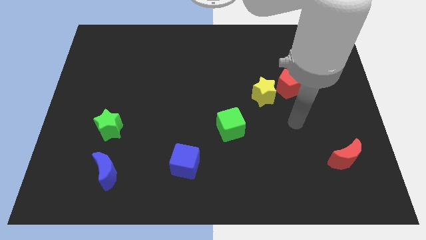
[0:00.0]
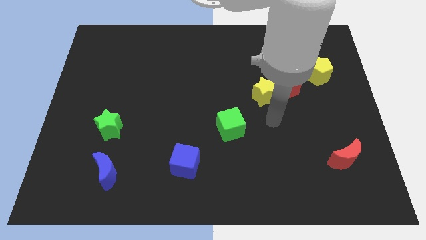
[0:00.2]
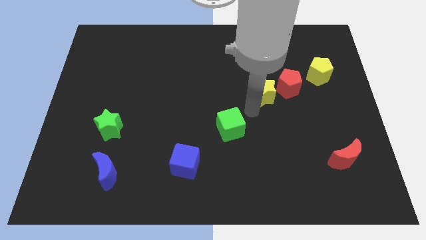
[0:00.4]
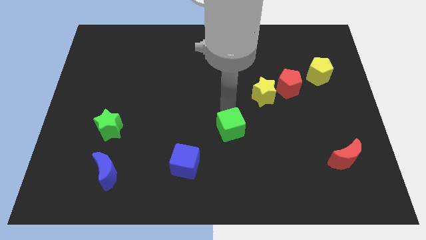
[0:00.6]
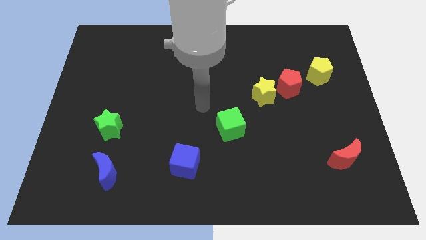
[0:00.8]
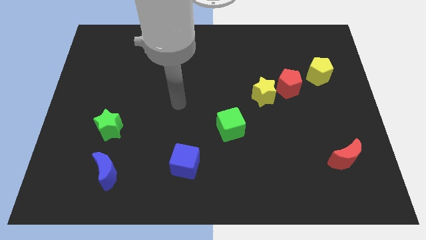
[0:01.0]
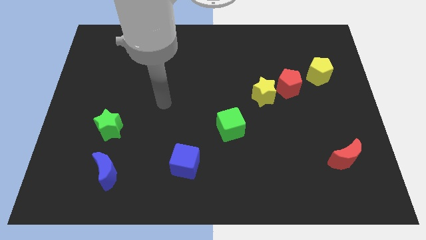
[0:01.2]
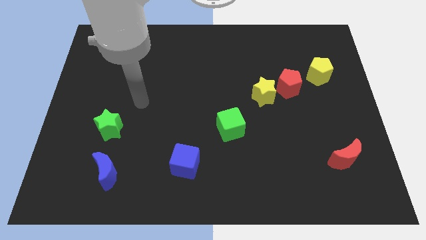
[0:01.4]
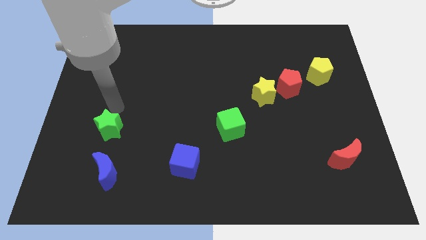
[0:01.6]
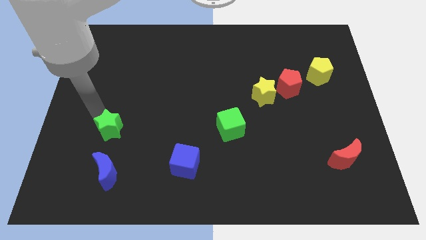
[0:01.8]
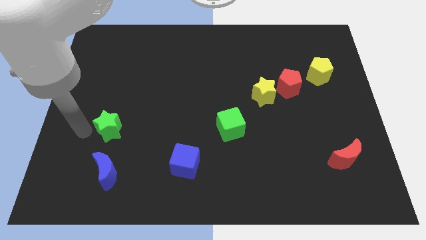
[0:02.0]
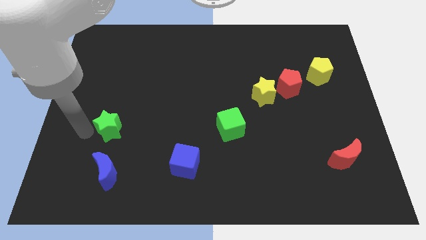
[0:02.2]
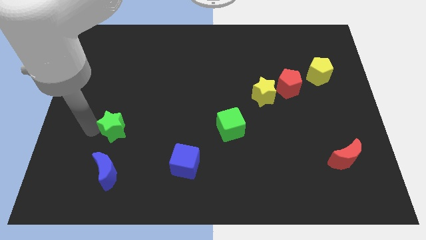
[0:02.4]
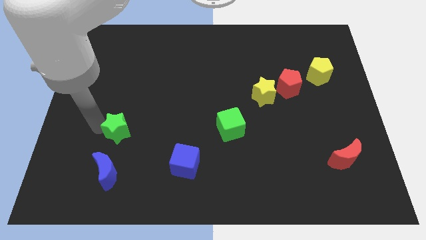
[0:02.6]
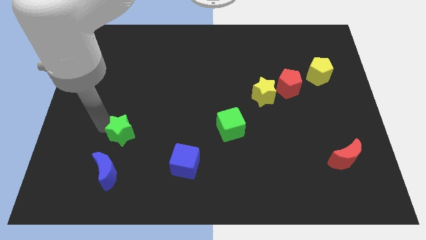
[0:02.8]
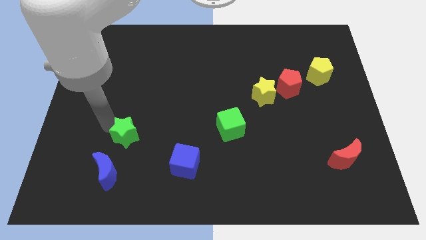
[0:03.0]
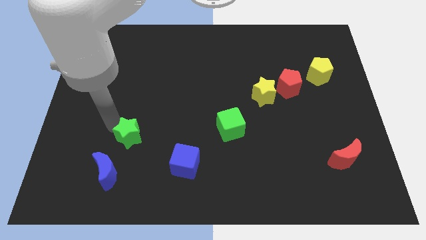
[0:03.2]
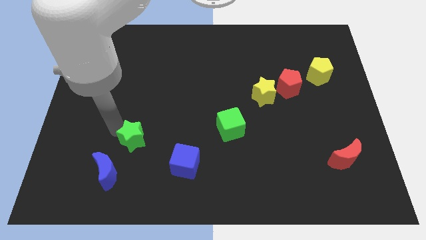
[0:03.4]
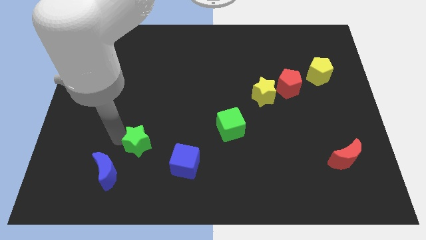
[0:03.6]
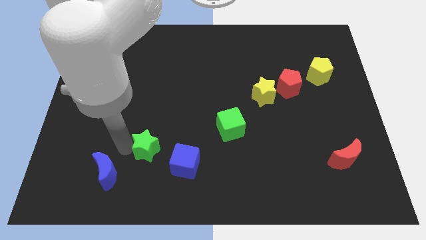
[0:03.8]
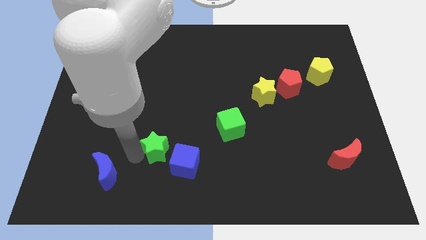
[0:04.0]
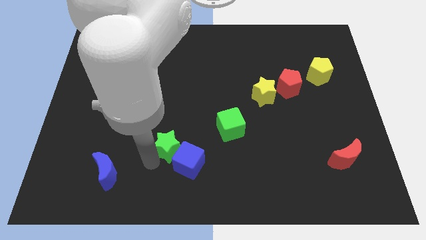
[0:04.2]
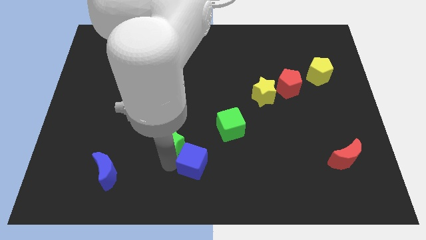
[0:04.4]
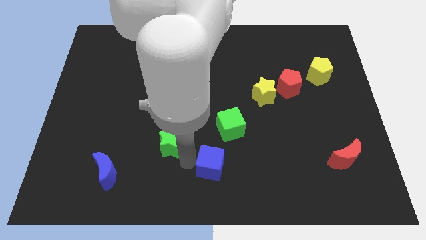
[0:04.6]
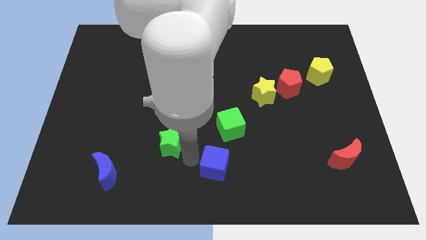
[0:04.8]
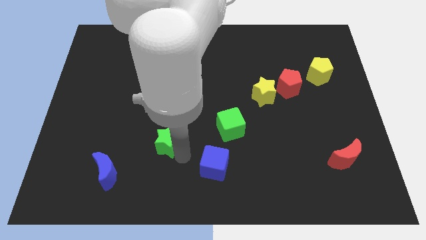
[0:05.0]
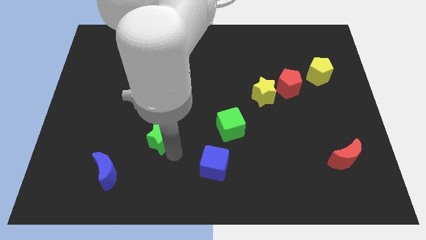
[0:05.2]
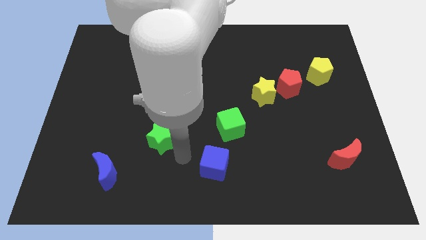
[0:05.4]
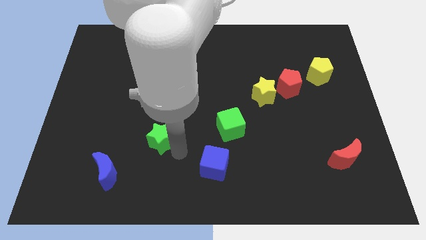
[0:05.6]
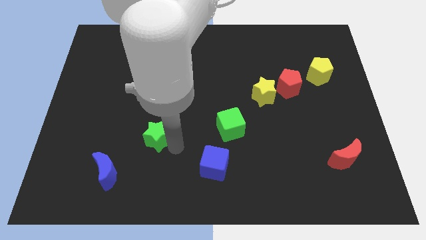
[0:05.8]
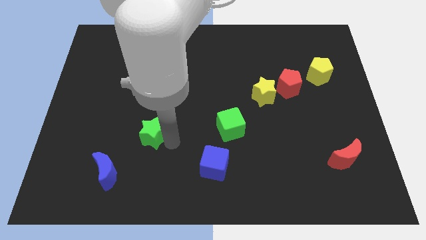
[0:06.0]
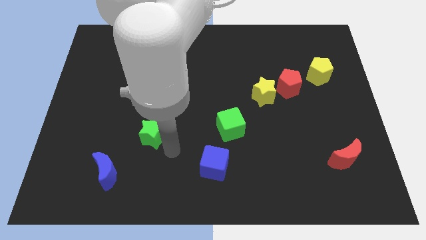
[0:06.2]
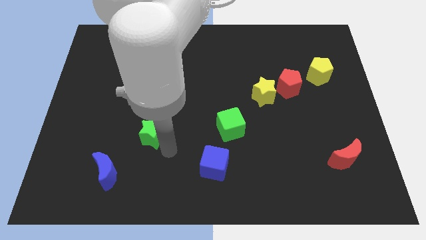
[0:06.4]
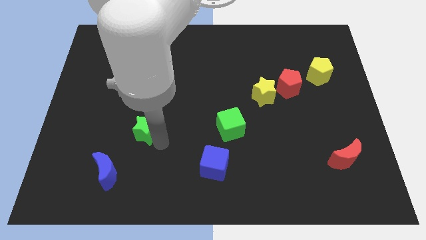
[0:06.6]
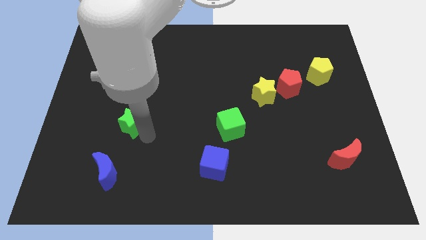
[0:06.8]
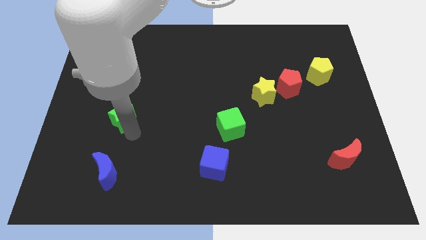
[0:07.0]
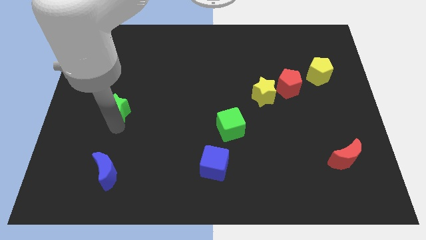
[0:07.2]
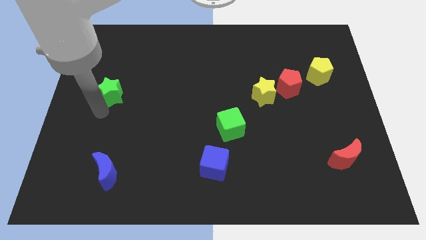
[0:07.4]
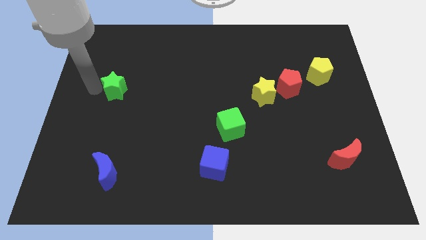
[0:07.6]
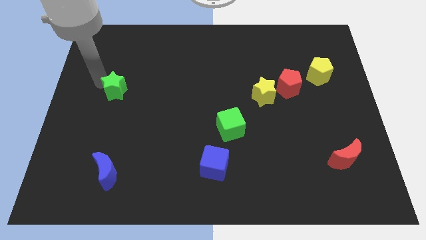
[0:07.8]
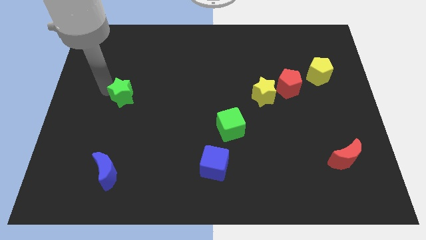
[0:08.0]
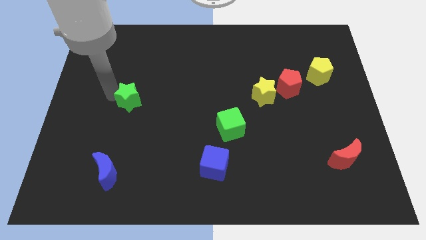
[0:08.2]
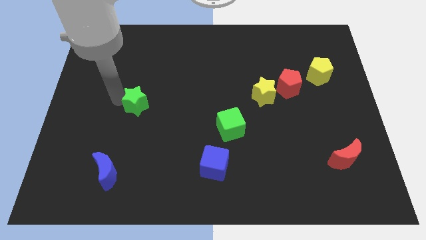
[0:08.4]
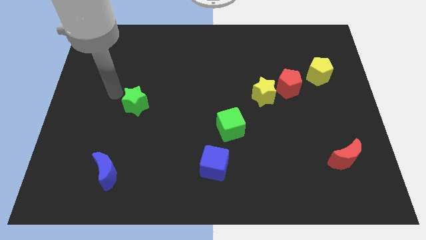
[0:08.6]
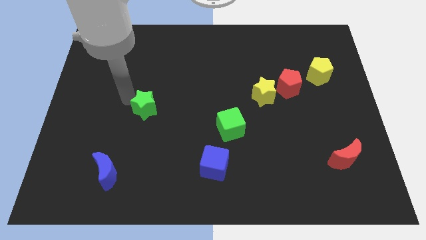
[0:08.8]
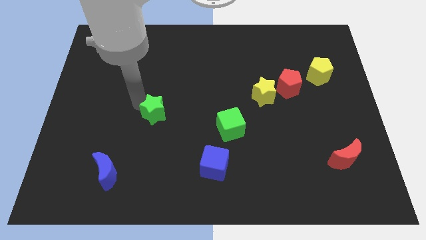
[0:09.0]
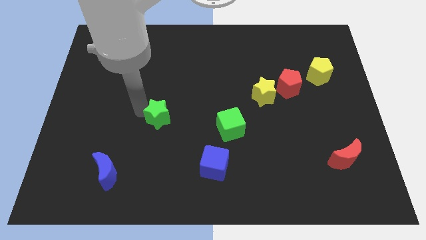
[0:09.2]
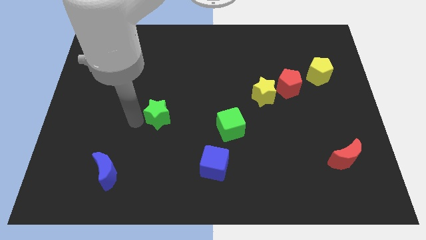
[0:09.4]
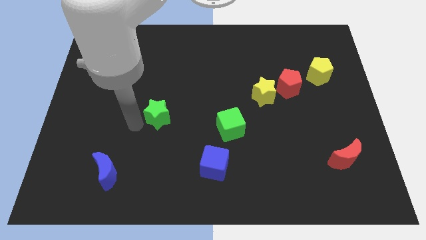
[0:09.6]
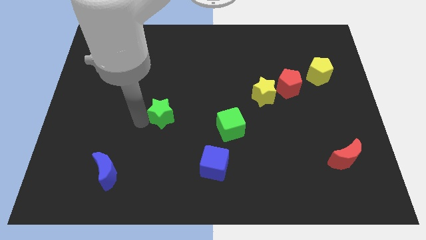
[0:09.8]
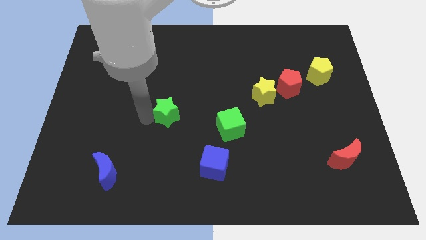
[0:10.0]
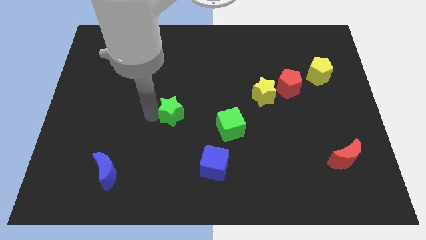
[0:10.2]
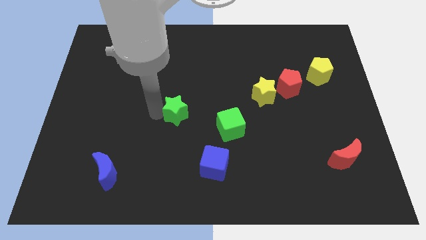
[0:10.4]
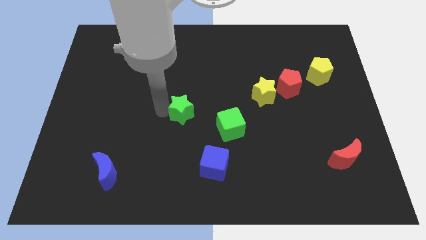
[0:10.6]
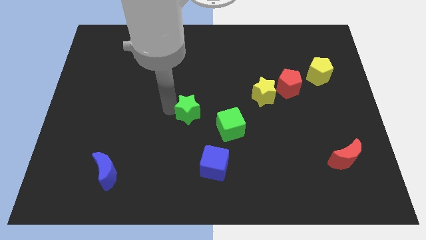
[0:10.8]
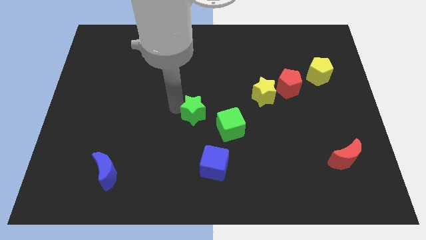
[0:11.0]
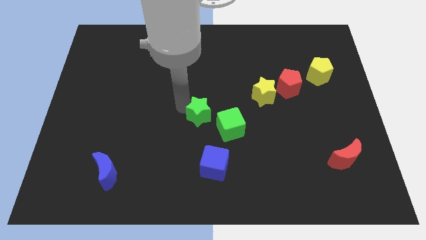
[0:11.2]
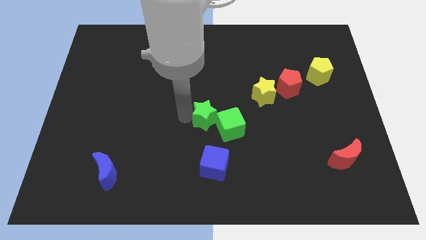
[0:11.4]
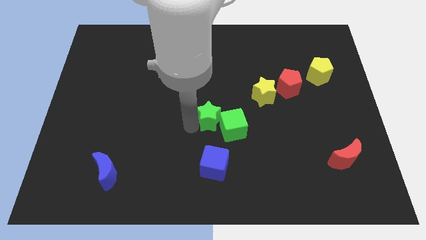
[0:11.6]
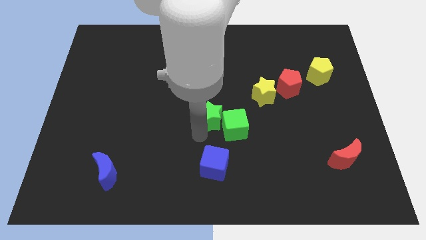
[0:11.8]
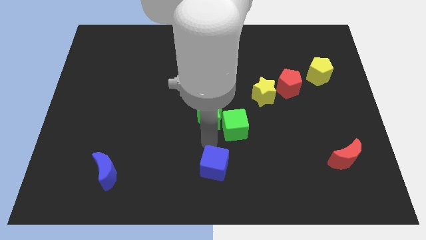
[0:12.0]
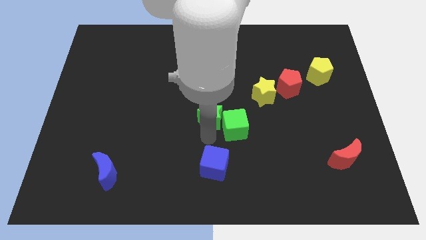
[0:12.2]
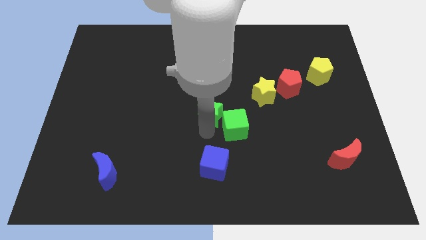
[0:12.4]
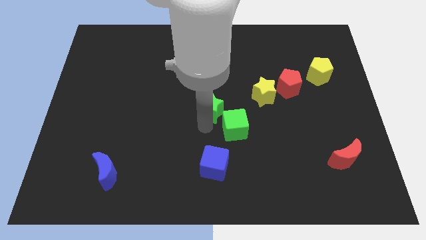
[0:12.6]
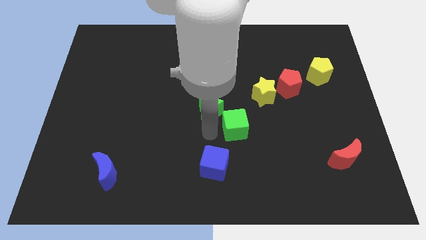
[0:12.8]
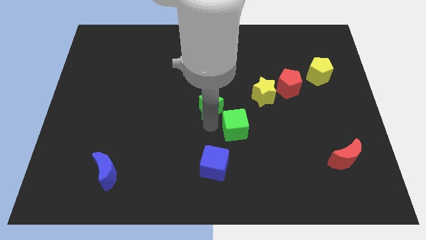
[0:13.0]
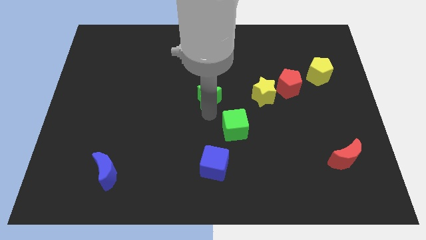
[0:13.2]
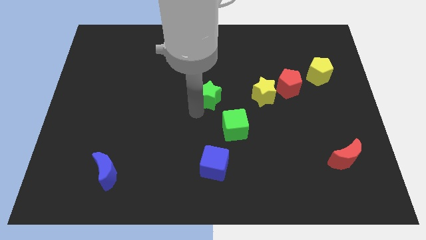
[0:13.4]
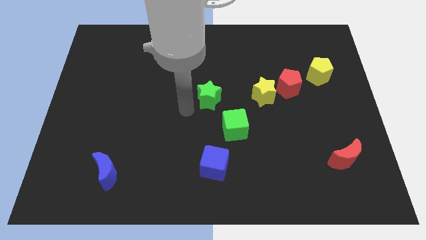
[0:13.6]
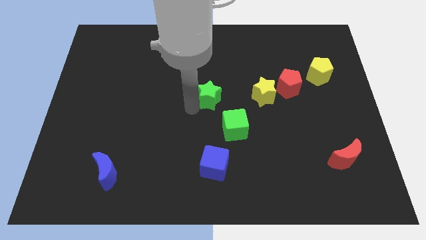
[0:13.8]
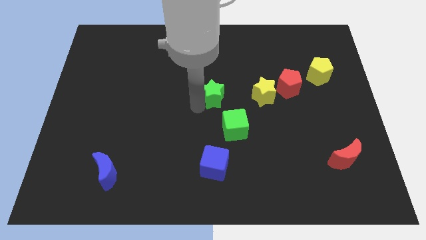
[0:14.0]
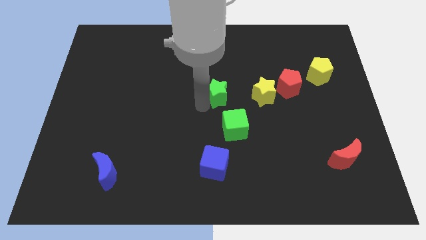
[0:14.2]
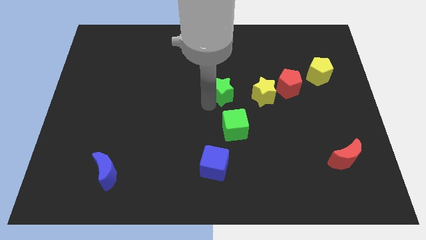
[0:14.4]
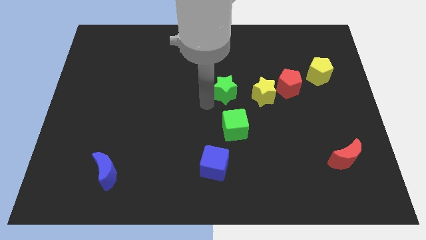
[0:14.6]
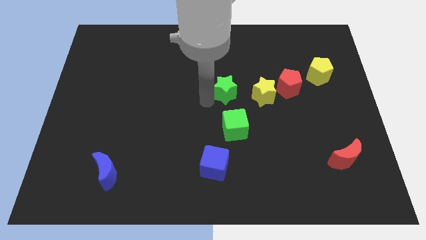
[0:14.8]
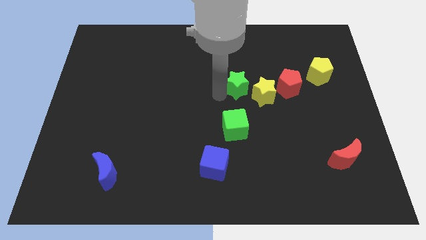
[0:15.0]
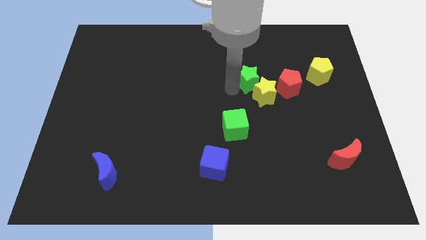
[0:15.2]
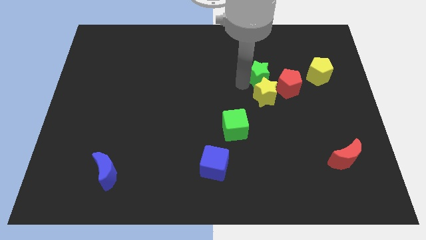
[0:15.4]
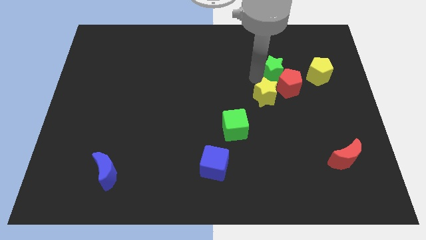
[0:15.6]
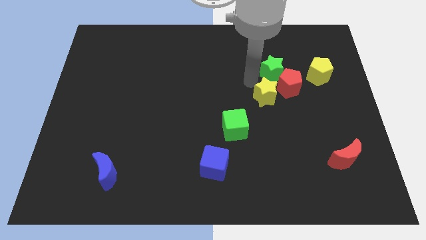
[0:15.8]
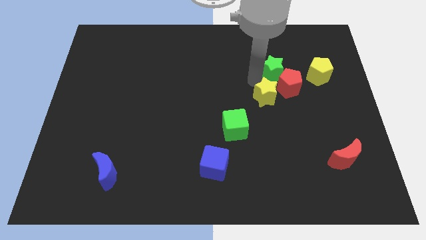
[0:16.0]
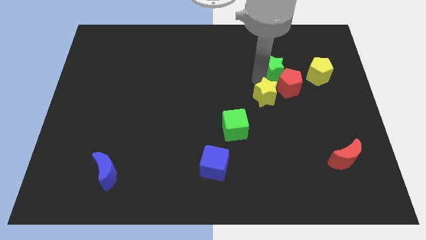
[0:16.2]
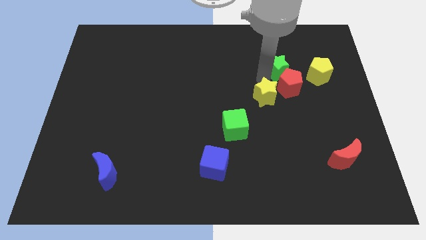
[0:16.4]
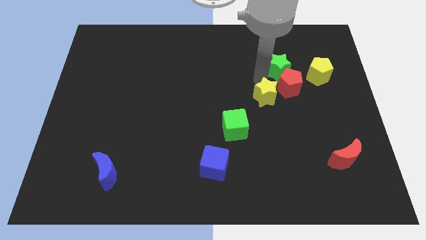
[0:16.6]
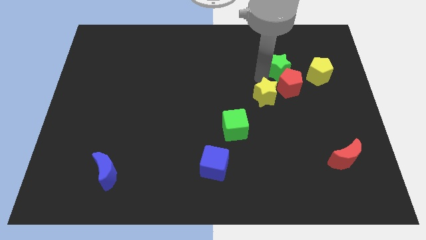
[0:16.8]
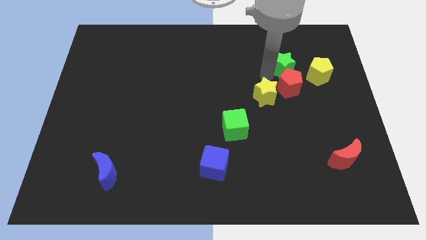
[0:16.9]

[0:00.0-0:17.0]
slide the green star to the top left side of the yellow pentagon
